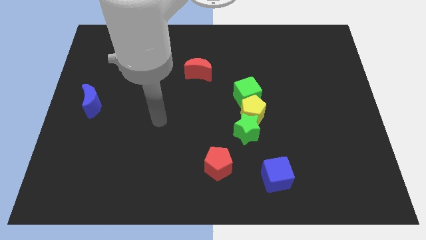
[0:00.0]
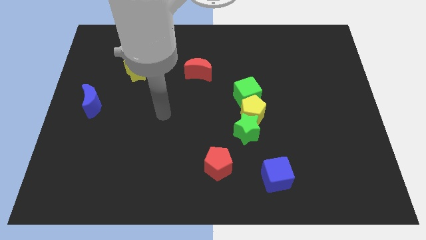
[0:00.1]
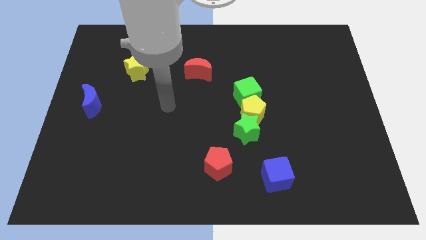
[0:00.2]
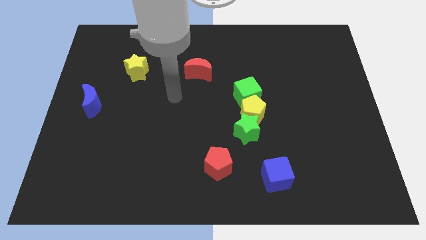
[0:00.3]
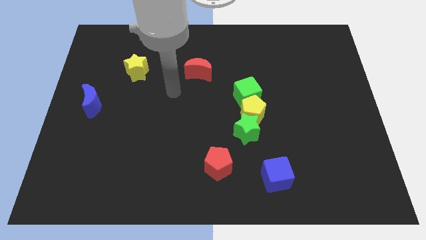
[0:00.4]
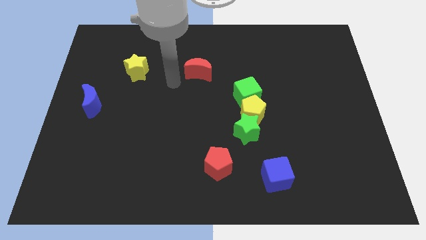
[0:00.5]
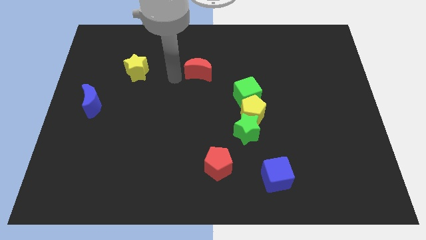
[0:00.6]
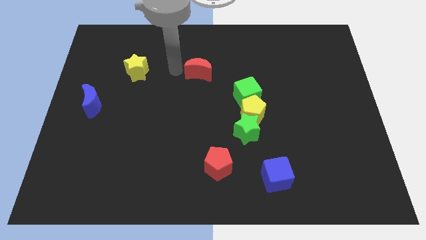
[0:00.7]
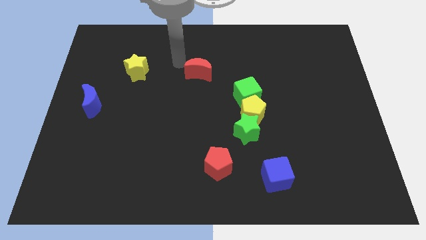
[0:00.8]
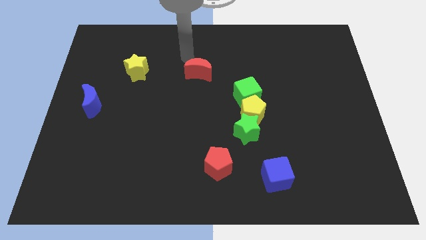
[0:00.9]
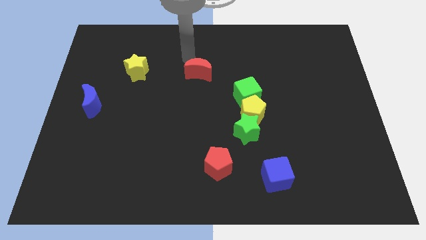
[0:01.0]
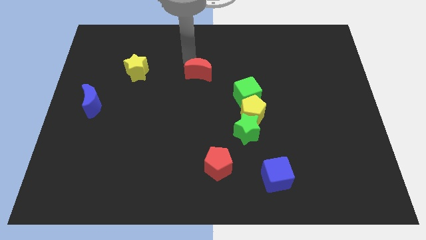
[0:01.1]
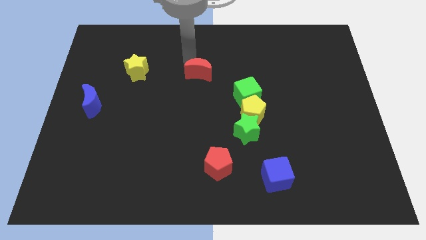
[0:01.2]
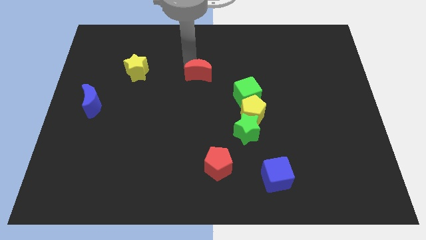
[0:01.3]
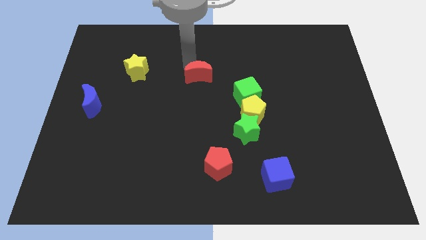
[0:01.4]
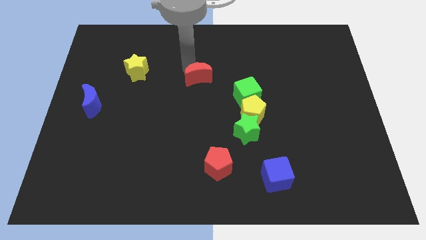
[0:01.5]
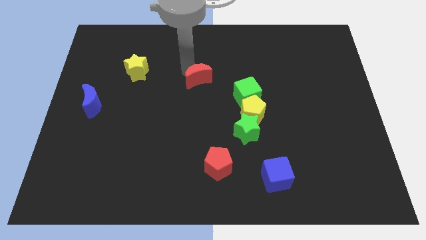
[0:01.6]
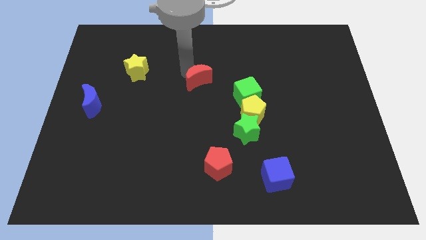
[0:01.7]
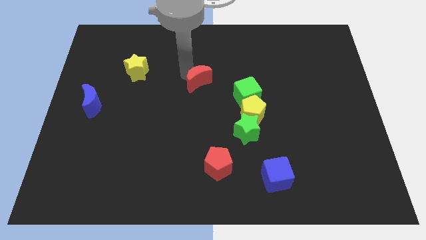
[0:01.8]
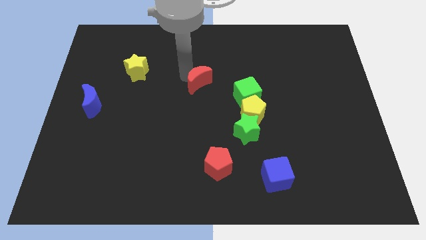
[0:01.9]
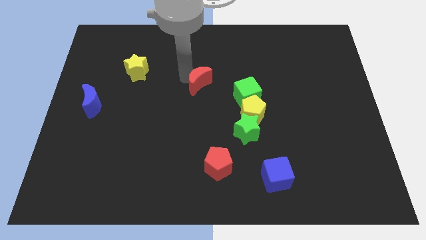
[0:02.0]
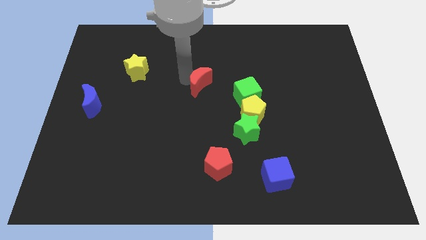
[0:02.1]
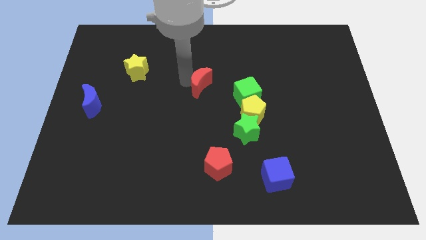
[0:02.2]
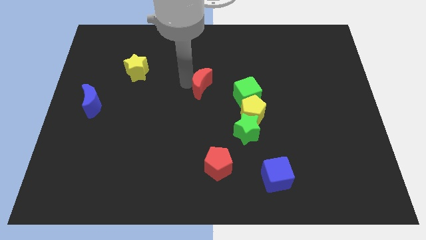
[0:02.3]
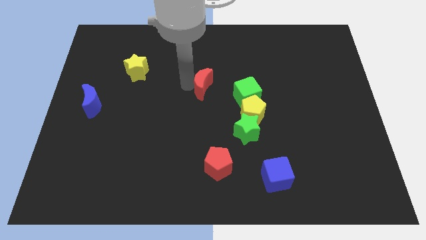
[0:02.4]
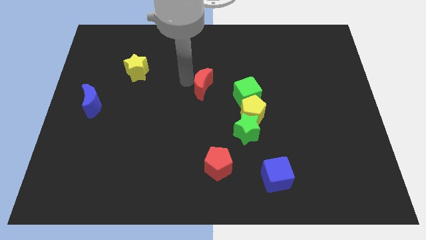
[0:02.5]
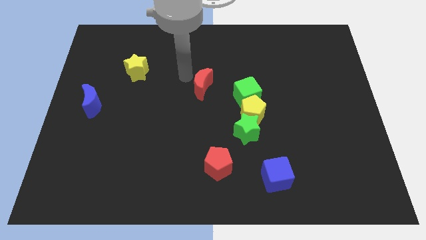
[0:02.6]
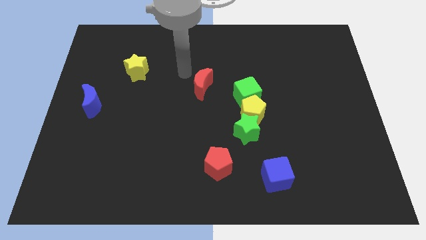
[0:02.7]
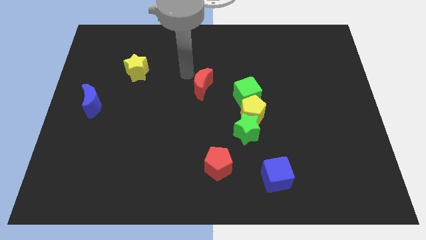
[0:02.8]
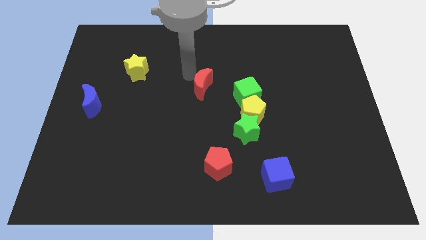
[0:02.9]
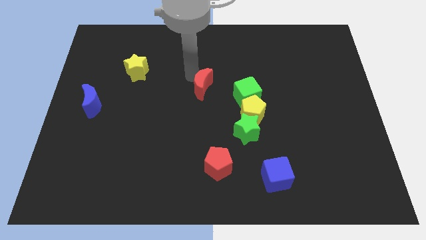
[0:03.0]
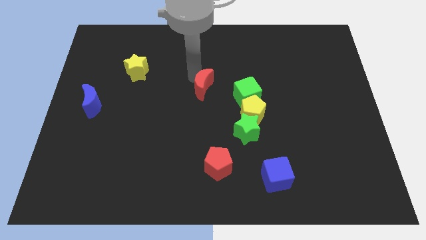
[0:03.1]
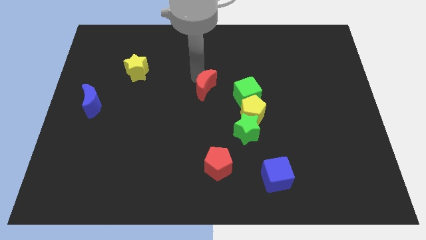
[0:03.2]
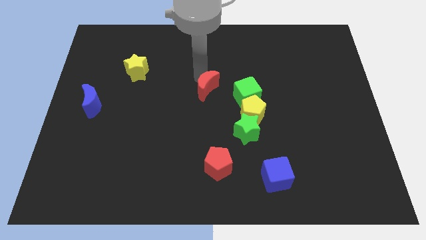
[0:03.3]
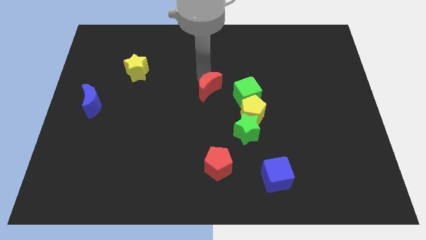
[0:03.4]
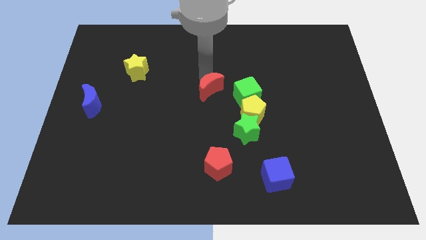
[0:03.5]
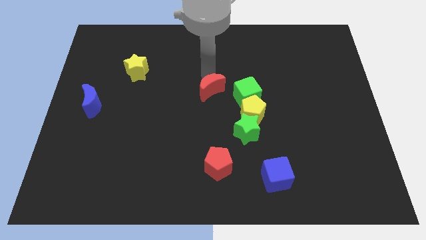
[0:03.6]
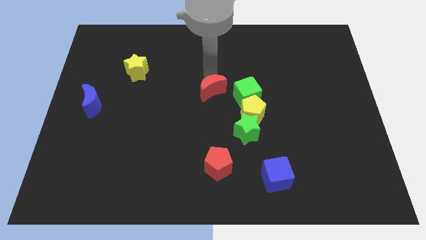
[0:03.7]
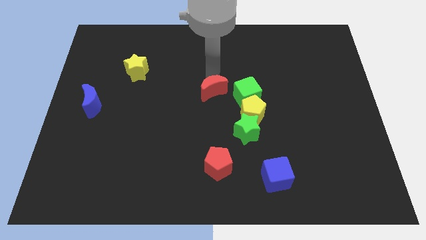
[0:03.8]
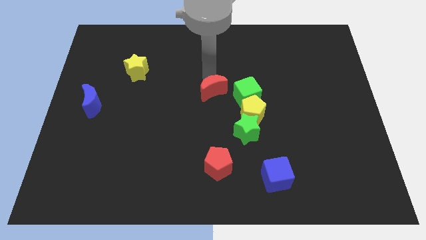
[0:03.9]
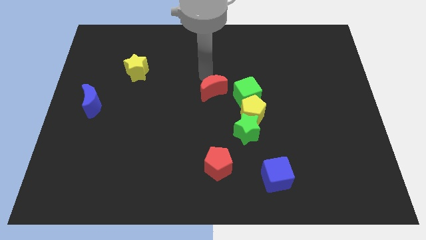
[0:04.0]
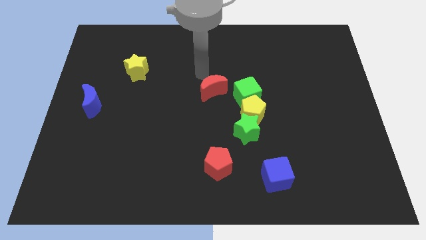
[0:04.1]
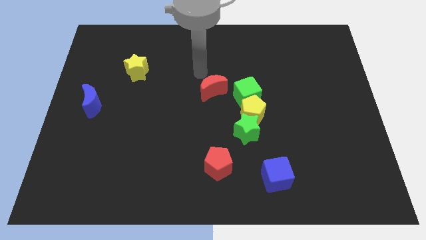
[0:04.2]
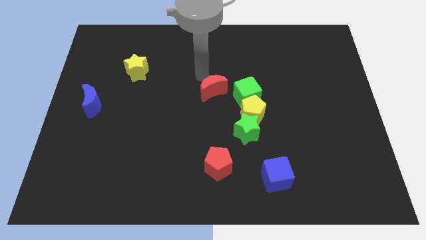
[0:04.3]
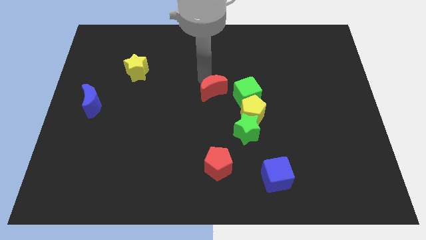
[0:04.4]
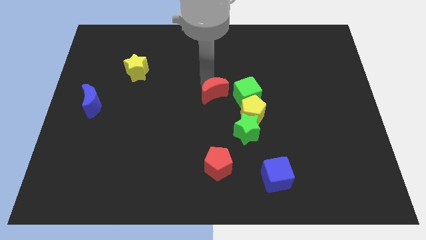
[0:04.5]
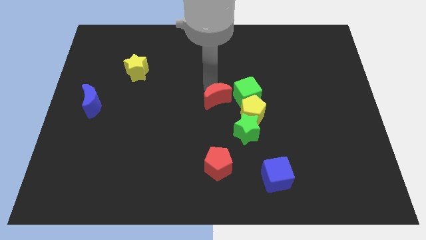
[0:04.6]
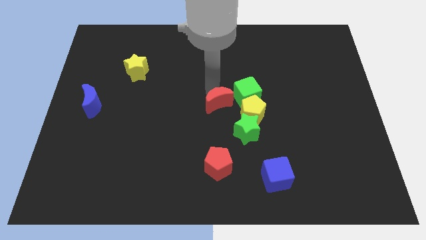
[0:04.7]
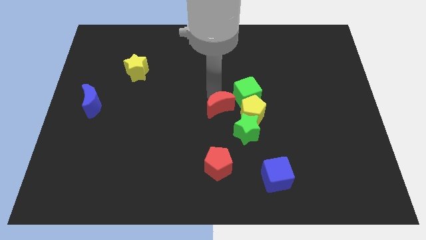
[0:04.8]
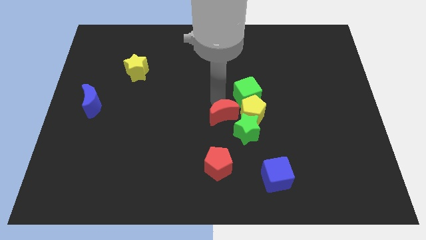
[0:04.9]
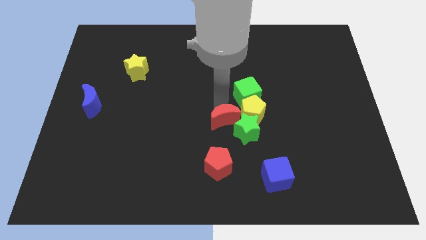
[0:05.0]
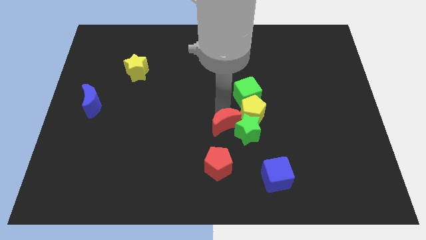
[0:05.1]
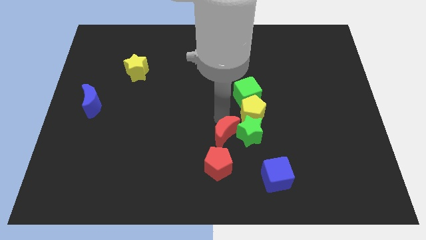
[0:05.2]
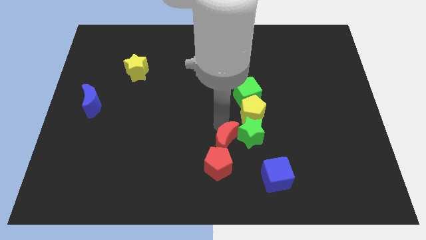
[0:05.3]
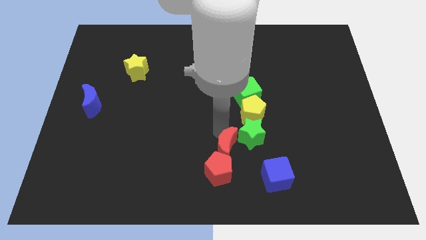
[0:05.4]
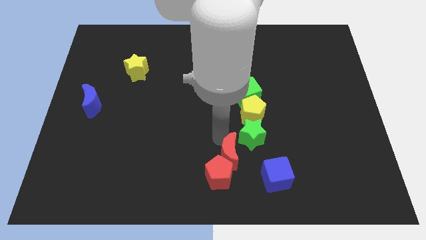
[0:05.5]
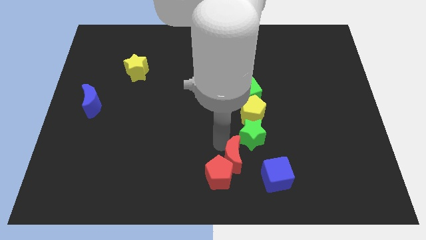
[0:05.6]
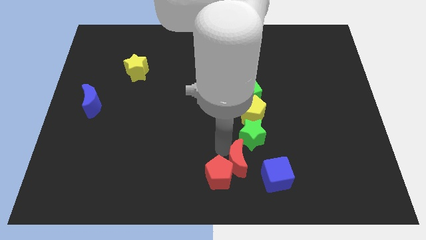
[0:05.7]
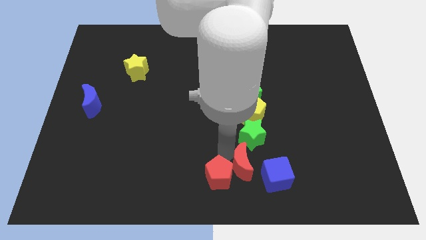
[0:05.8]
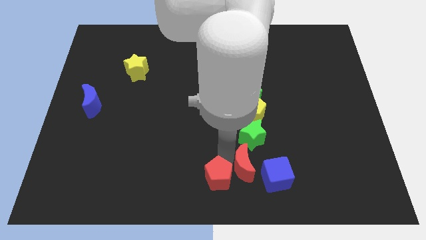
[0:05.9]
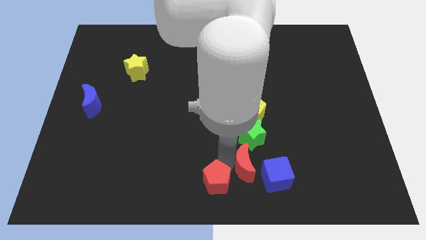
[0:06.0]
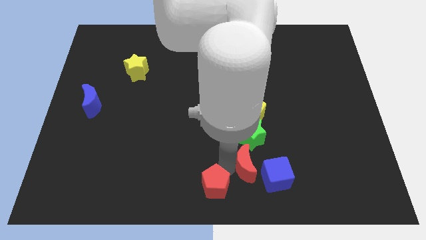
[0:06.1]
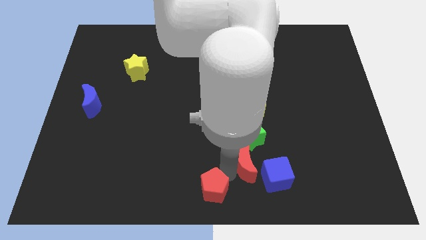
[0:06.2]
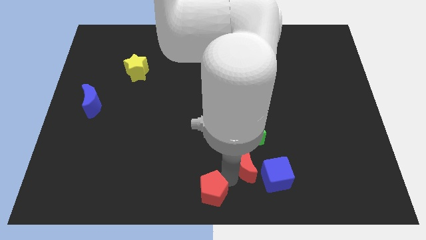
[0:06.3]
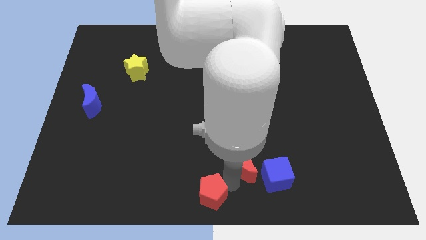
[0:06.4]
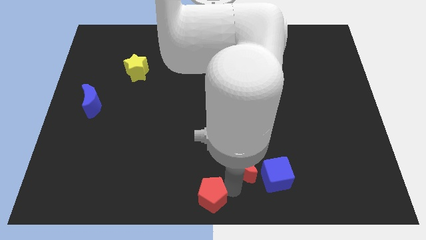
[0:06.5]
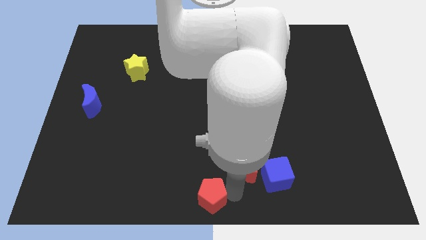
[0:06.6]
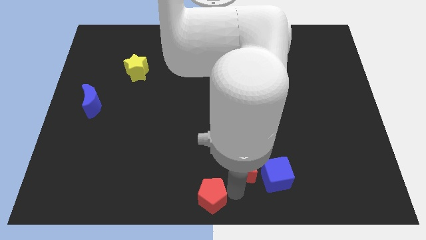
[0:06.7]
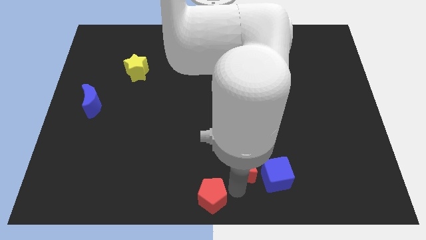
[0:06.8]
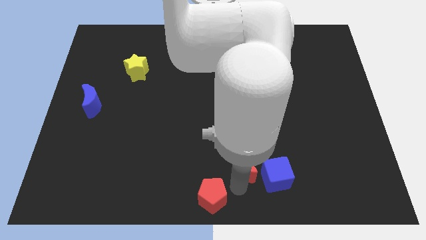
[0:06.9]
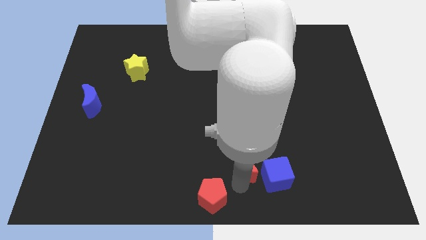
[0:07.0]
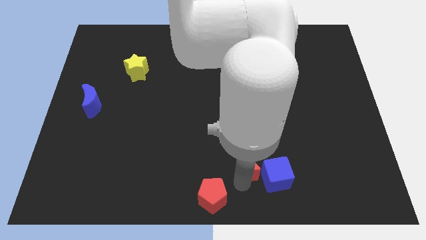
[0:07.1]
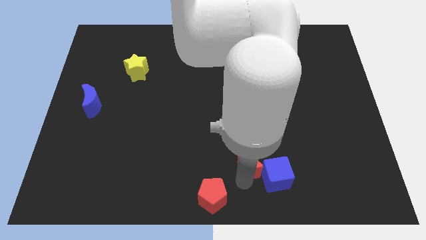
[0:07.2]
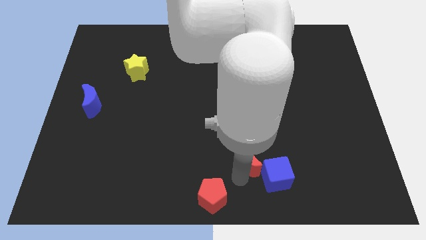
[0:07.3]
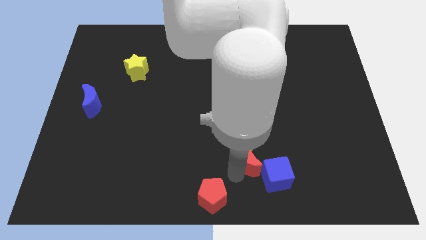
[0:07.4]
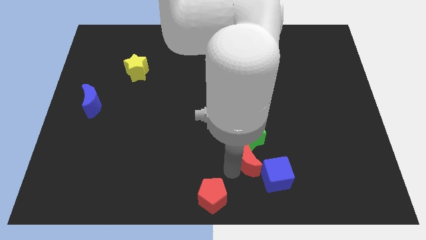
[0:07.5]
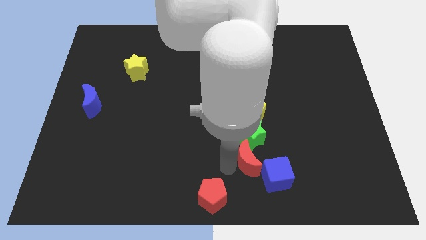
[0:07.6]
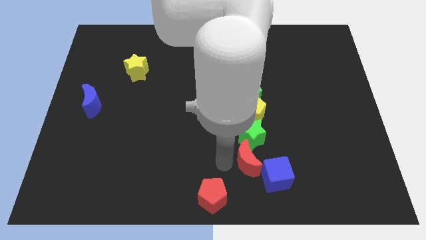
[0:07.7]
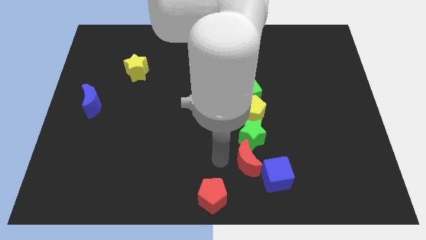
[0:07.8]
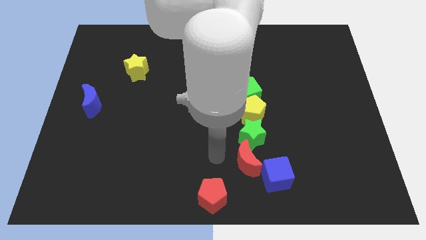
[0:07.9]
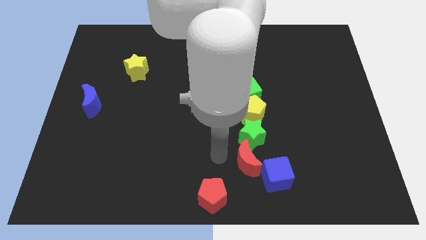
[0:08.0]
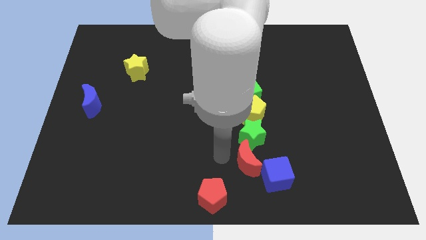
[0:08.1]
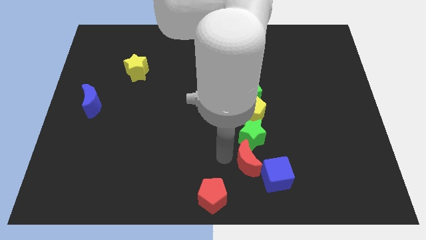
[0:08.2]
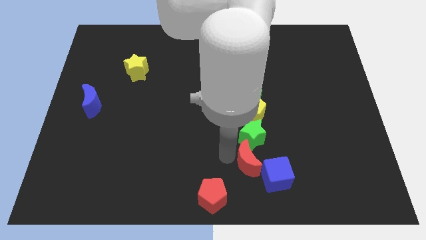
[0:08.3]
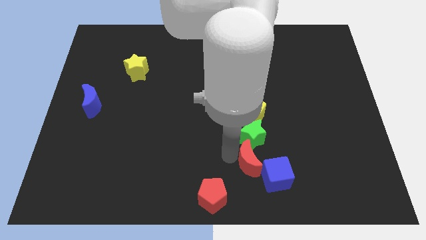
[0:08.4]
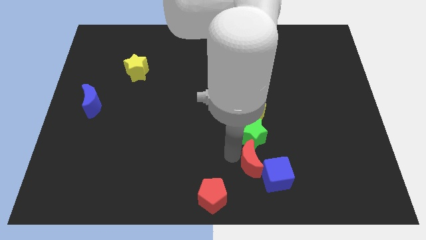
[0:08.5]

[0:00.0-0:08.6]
push the red moon towards the blue cube
